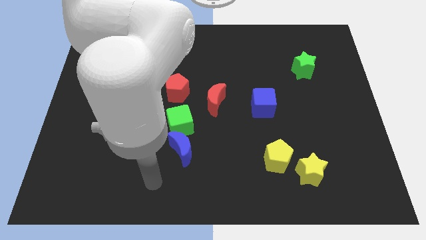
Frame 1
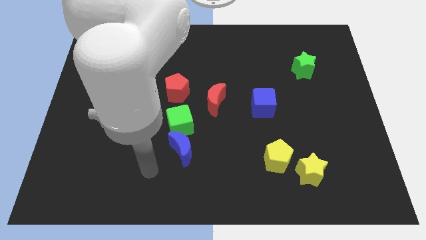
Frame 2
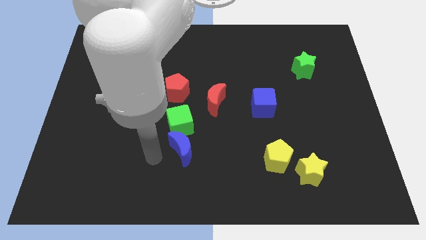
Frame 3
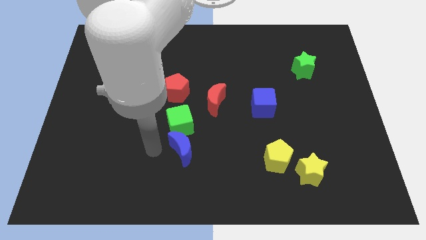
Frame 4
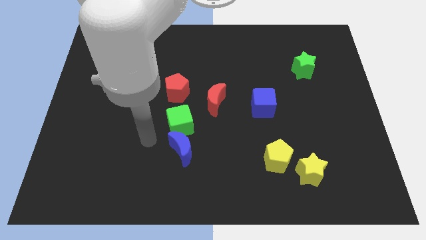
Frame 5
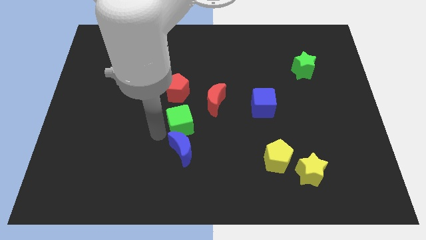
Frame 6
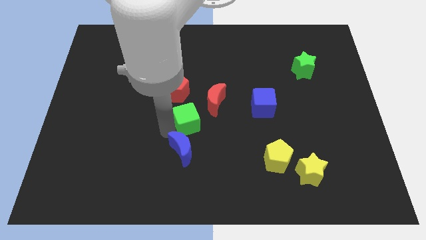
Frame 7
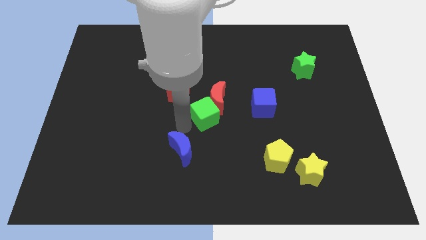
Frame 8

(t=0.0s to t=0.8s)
pull the blue moon apart from the green cube

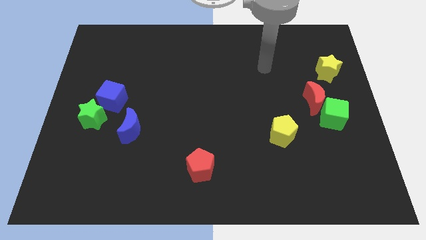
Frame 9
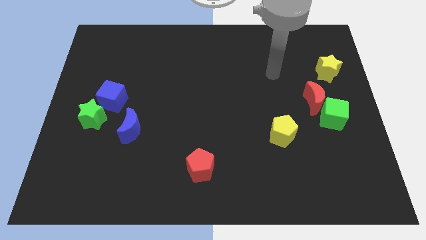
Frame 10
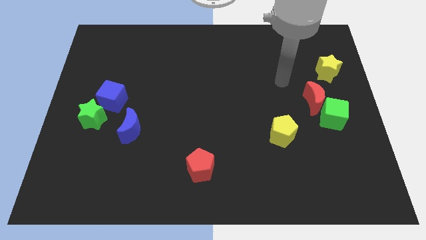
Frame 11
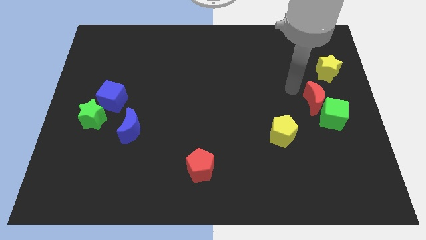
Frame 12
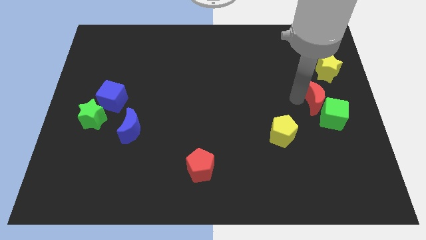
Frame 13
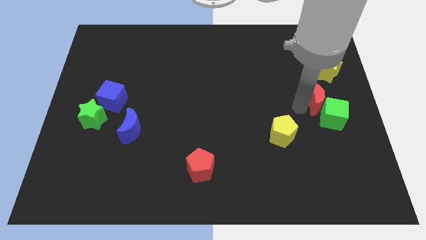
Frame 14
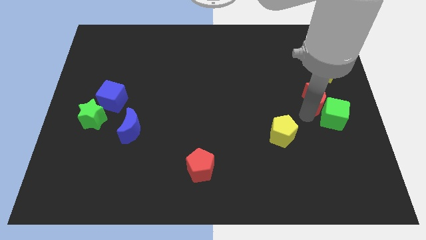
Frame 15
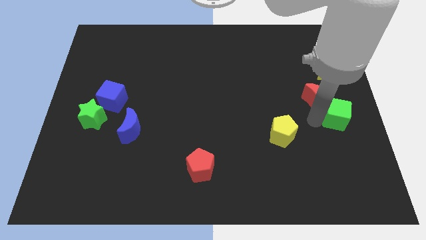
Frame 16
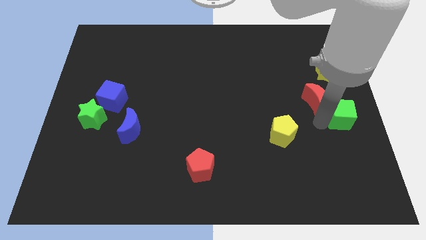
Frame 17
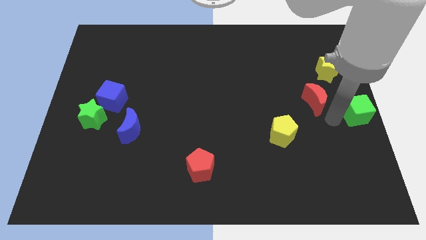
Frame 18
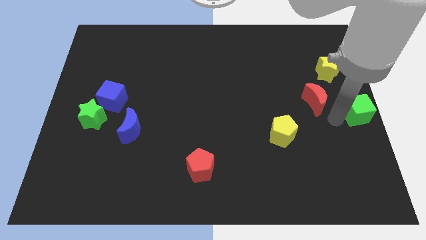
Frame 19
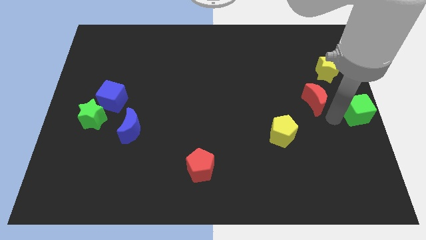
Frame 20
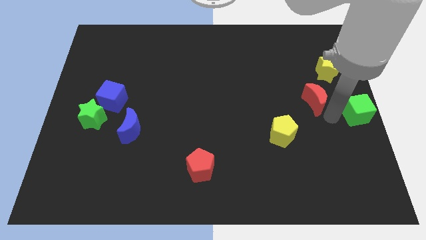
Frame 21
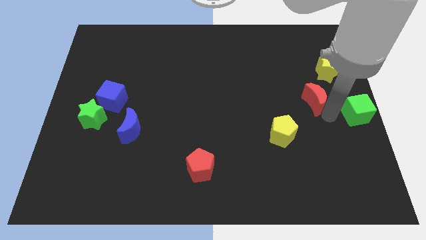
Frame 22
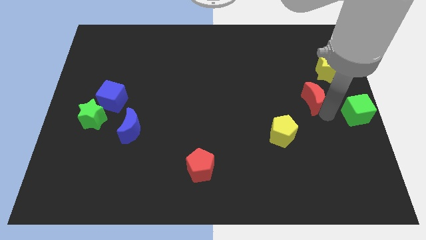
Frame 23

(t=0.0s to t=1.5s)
move the red moon away from the green cube

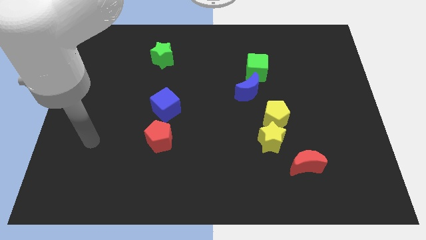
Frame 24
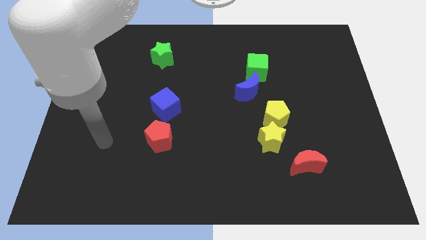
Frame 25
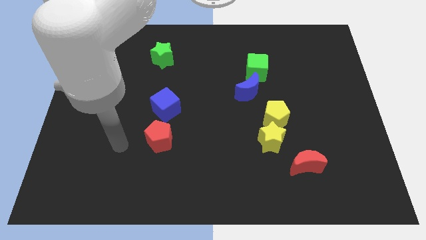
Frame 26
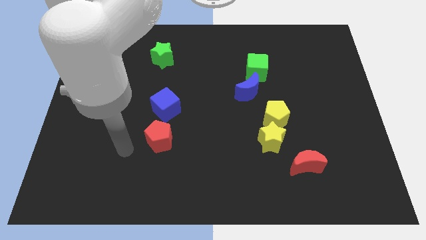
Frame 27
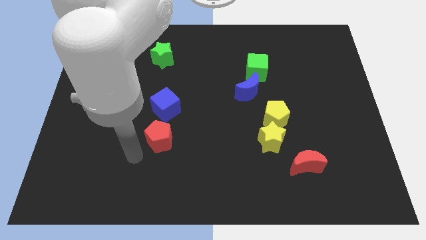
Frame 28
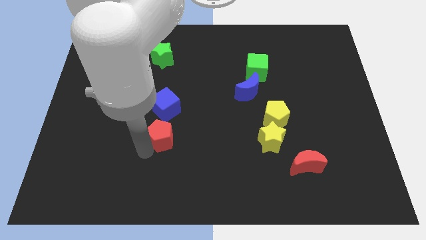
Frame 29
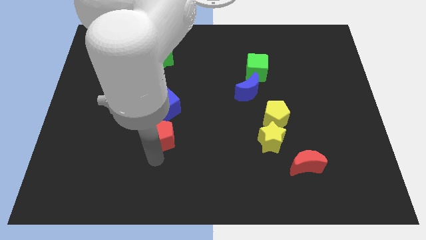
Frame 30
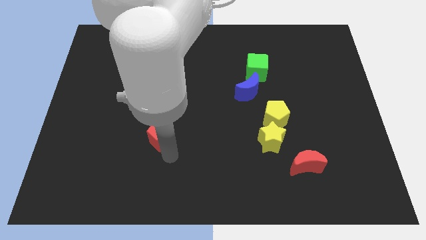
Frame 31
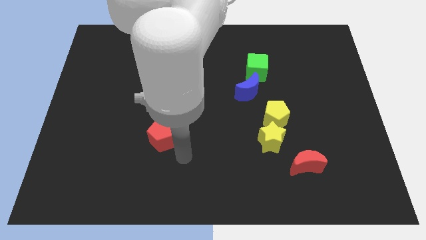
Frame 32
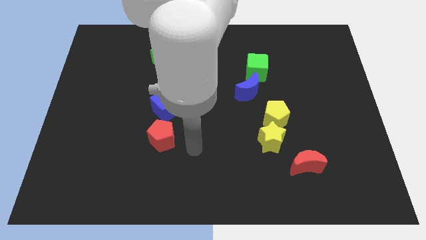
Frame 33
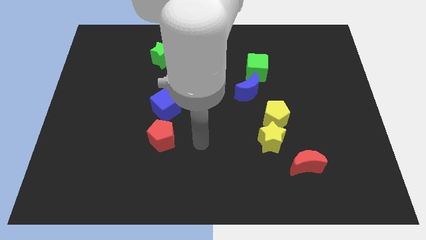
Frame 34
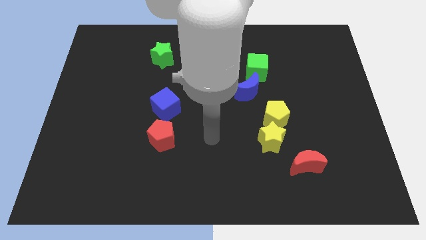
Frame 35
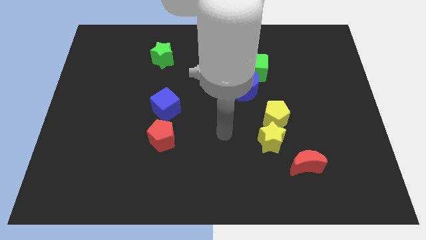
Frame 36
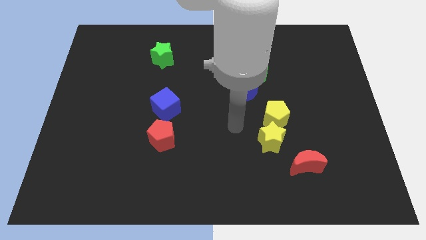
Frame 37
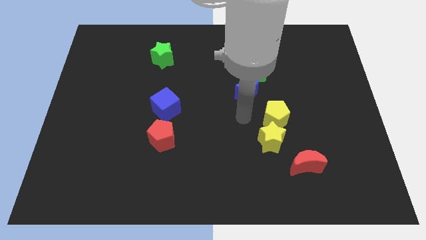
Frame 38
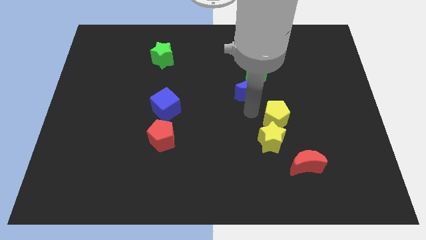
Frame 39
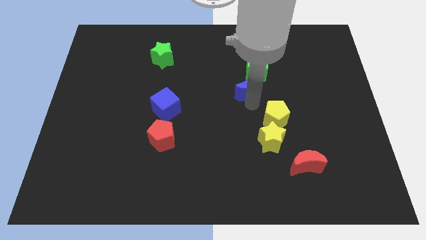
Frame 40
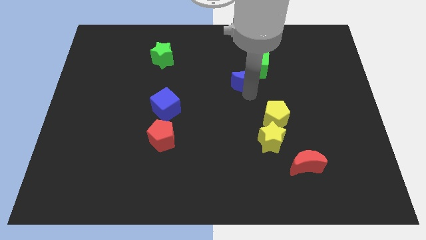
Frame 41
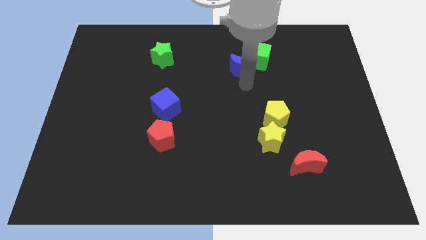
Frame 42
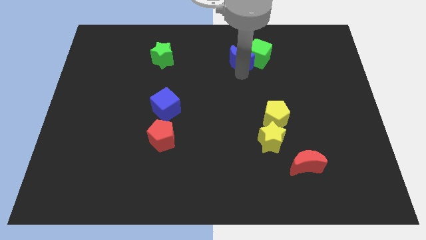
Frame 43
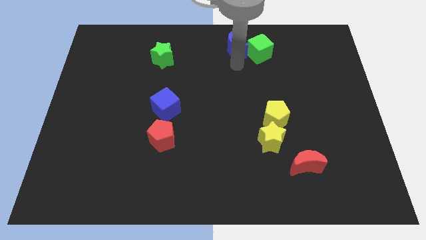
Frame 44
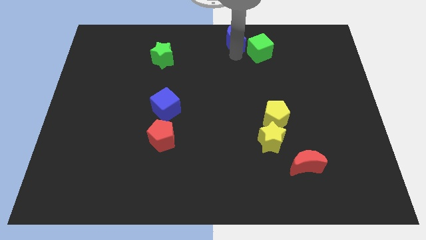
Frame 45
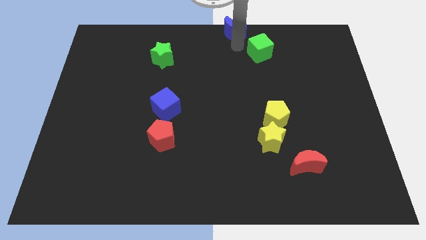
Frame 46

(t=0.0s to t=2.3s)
move the green cube away from the blue moon

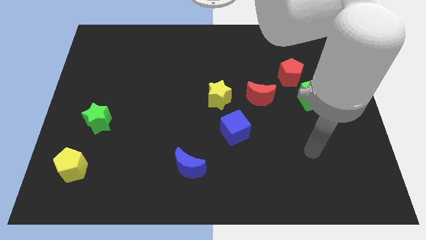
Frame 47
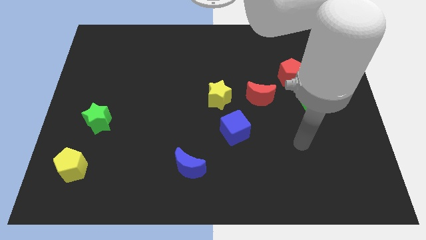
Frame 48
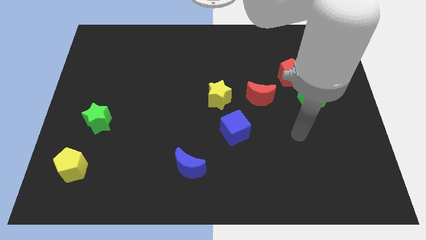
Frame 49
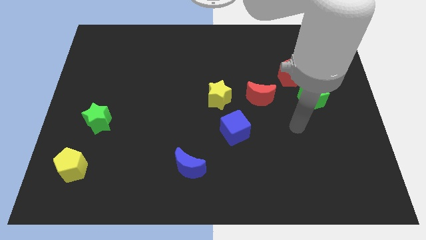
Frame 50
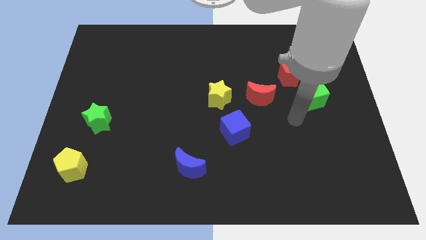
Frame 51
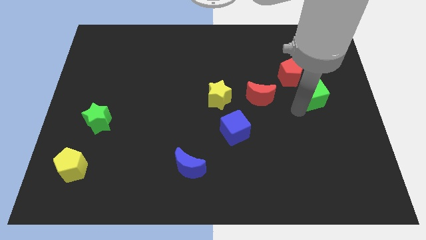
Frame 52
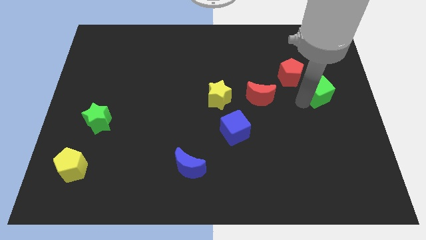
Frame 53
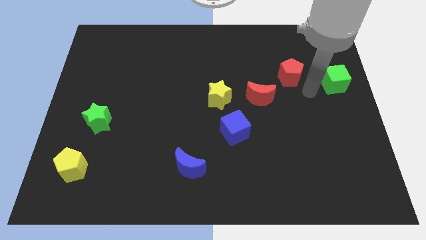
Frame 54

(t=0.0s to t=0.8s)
move the red pentagon away from the green cube

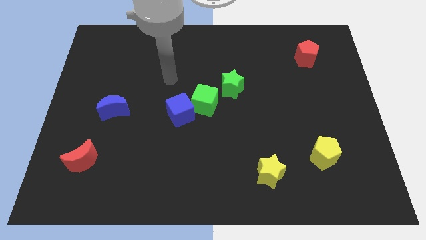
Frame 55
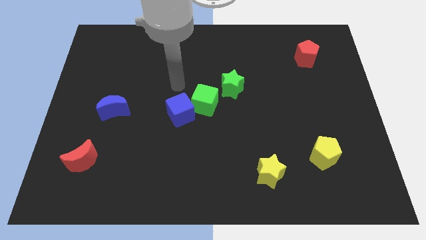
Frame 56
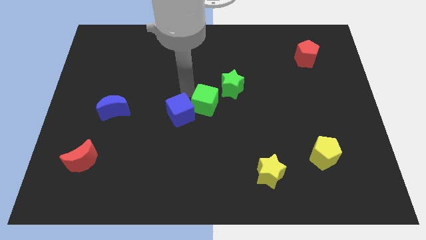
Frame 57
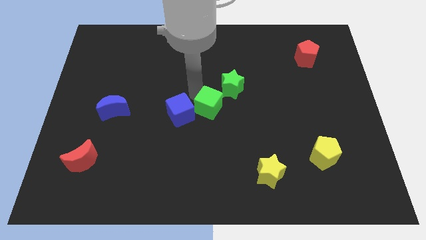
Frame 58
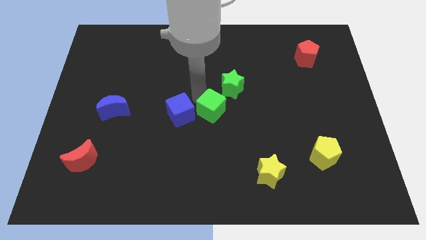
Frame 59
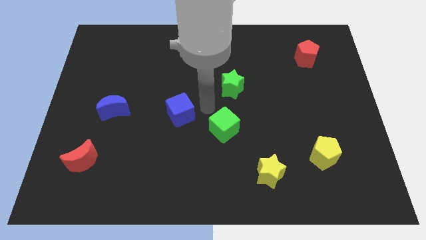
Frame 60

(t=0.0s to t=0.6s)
separate the blue cube from the green cube

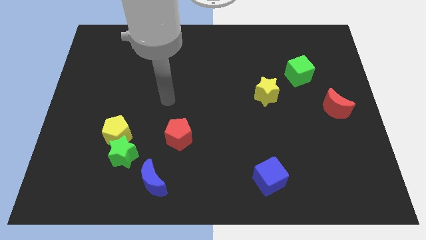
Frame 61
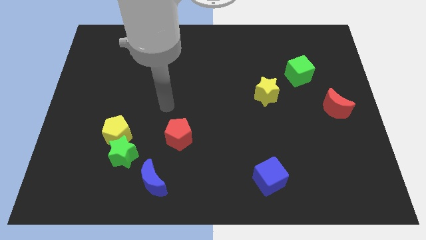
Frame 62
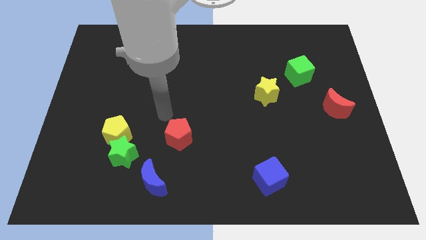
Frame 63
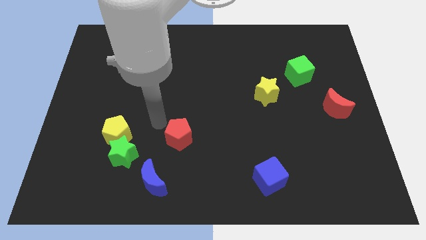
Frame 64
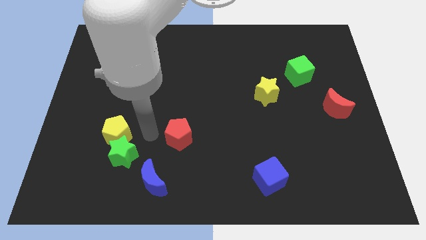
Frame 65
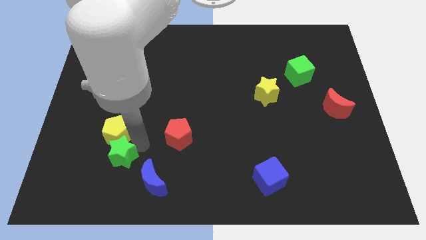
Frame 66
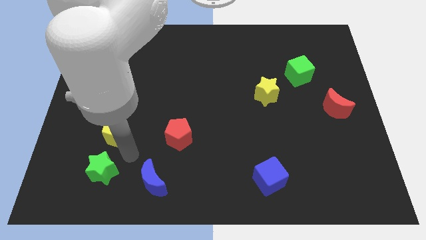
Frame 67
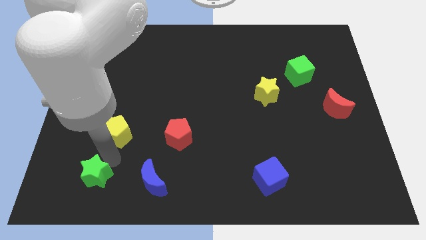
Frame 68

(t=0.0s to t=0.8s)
separate the yellow pentagon from the green star

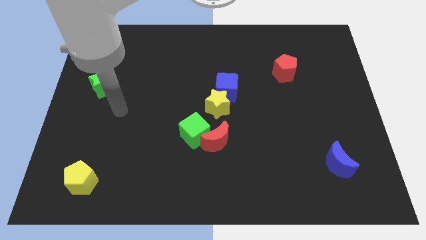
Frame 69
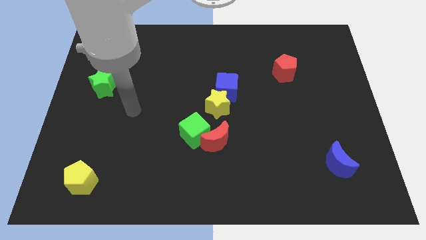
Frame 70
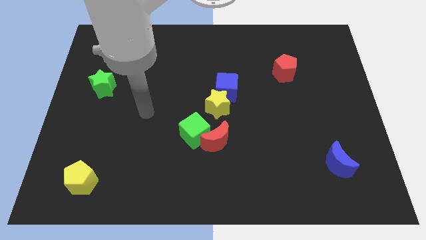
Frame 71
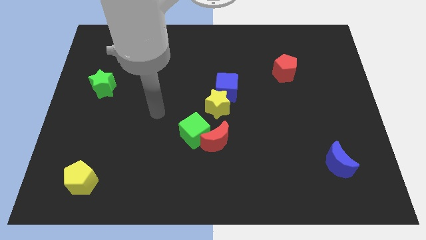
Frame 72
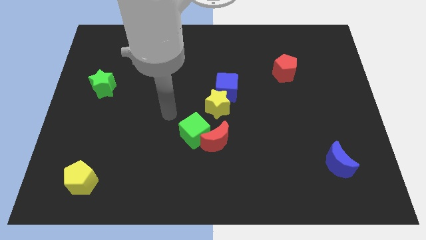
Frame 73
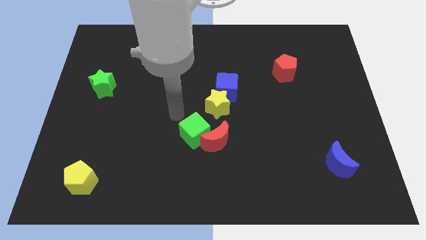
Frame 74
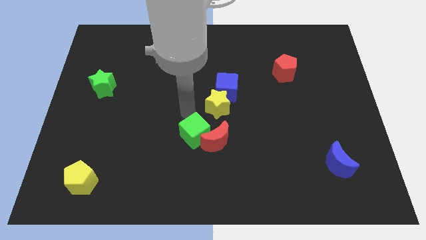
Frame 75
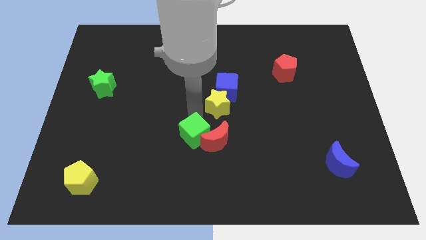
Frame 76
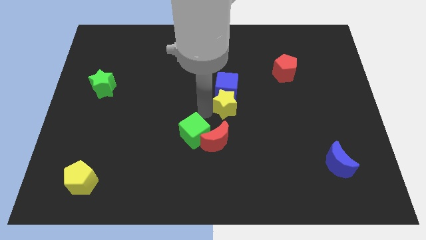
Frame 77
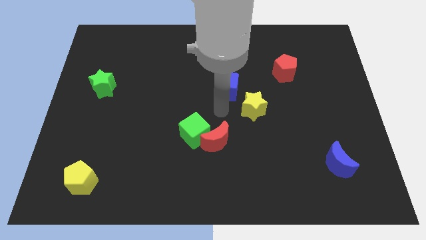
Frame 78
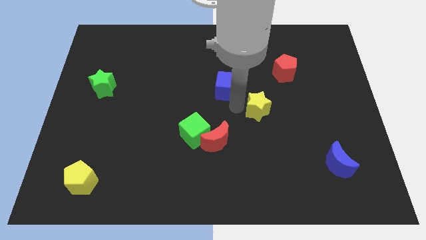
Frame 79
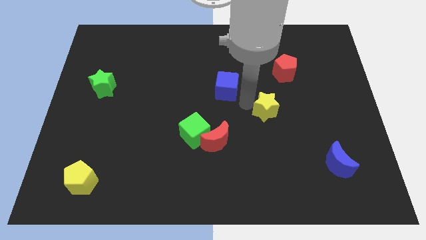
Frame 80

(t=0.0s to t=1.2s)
separate the blue cube from the yellow star

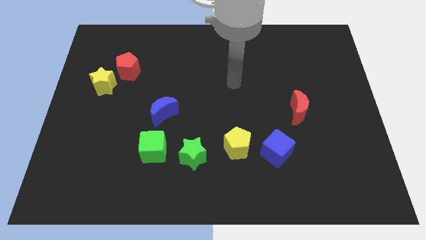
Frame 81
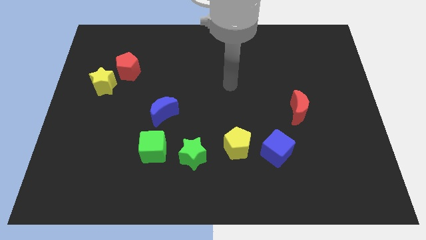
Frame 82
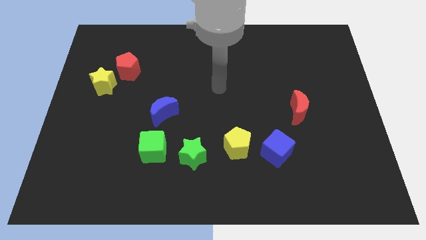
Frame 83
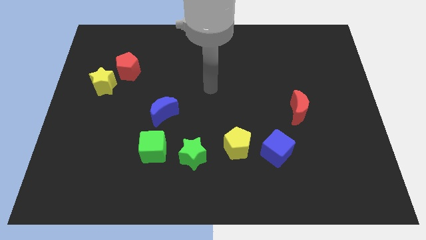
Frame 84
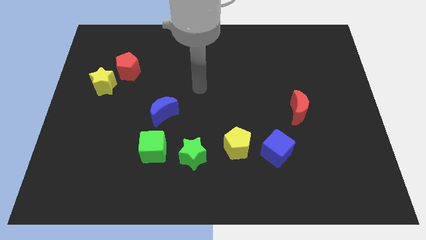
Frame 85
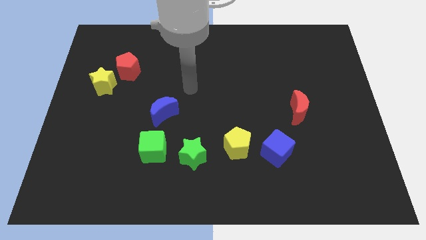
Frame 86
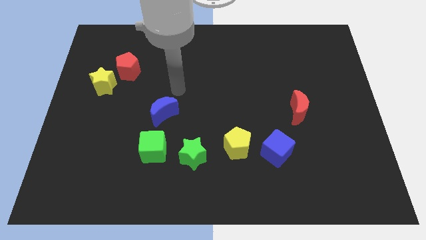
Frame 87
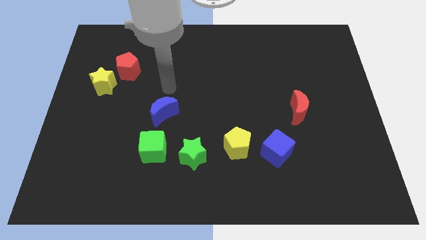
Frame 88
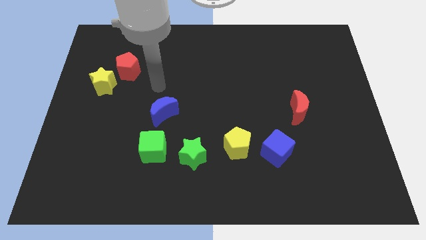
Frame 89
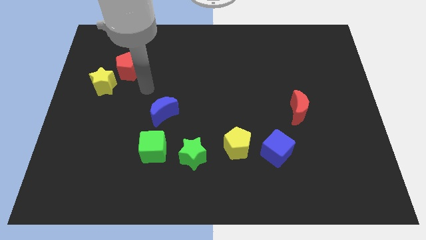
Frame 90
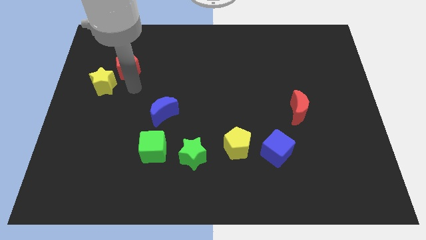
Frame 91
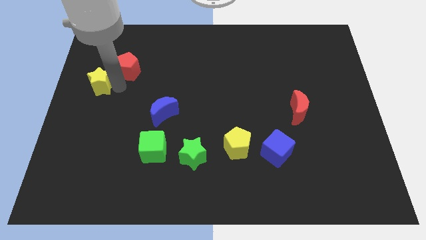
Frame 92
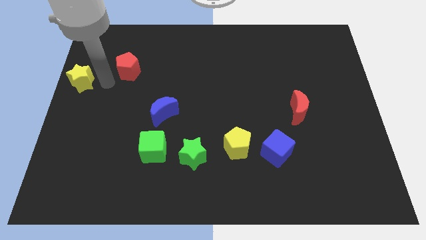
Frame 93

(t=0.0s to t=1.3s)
pull the red pentagon apart from the yellow star
